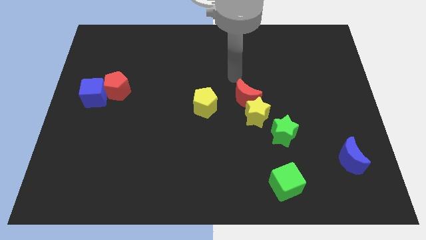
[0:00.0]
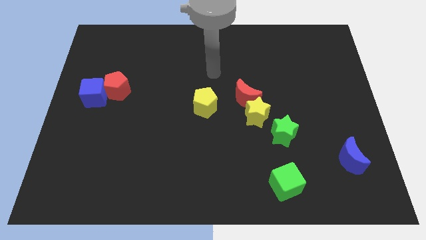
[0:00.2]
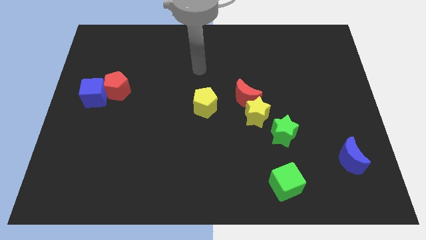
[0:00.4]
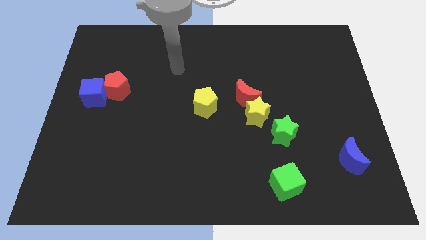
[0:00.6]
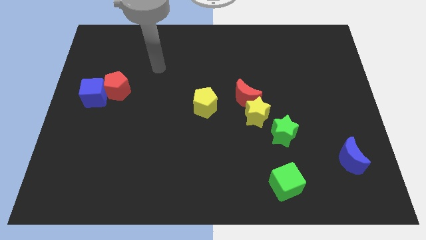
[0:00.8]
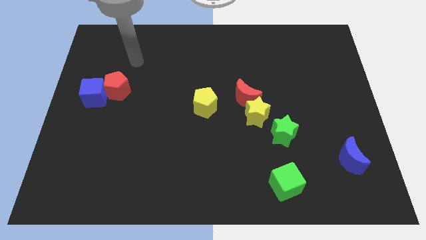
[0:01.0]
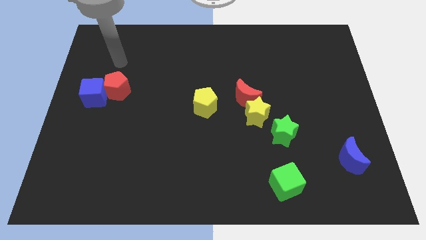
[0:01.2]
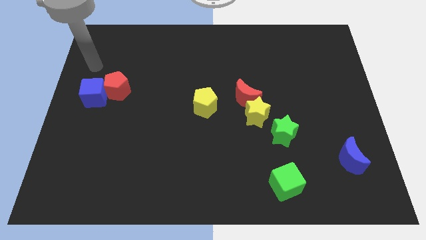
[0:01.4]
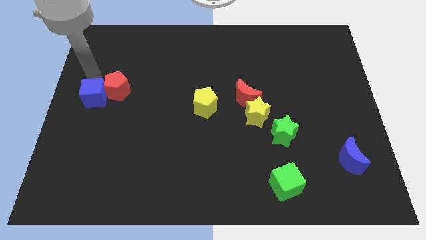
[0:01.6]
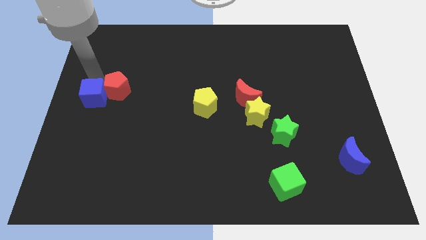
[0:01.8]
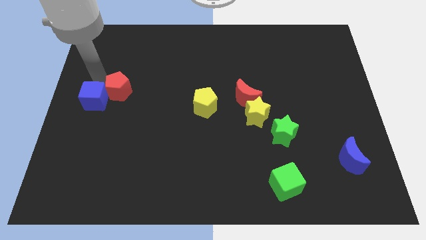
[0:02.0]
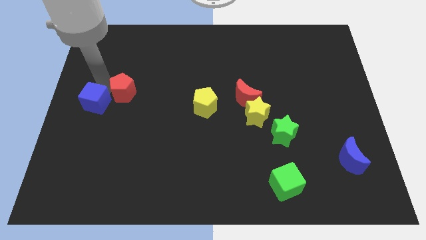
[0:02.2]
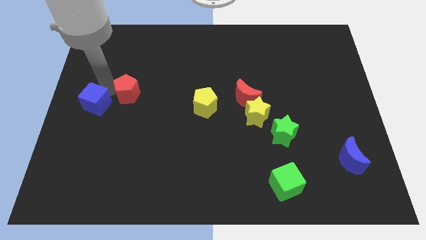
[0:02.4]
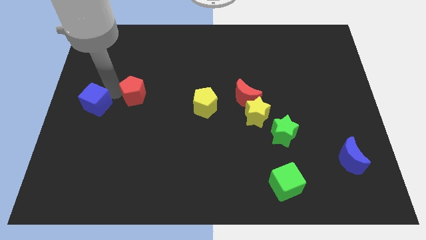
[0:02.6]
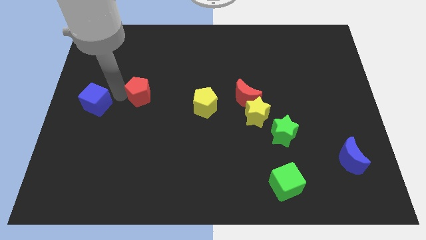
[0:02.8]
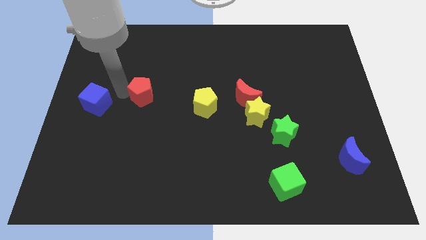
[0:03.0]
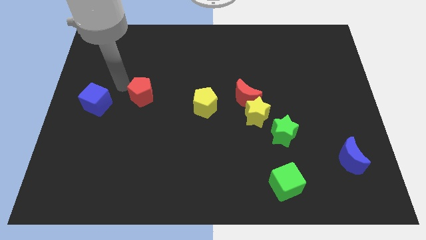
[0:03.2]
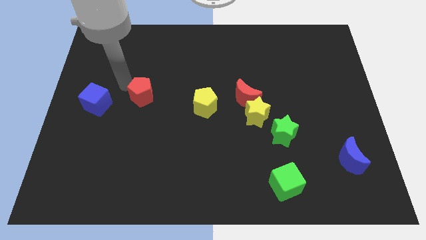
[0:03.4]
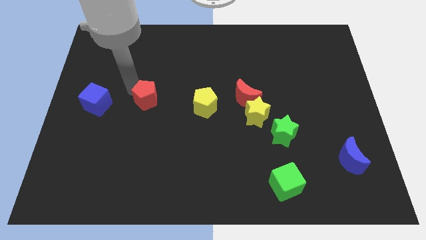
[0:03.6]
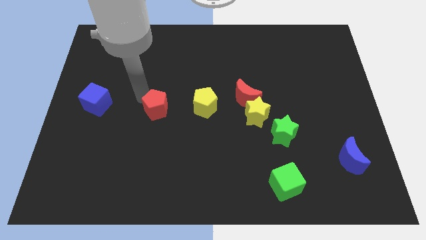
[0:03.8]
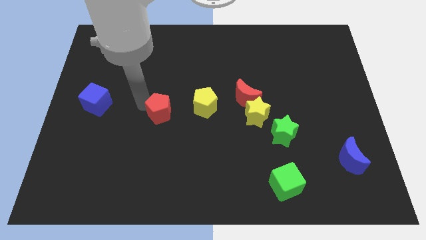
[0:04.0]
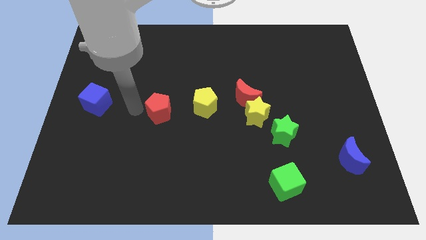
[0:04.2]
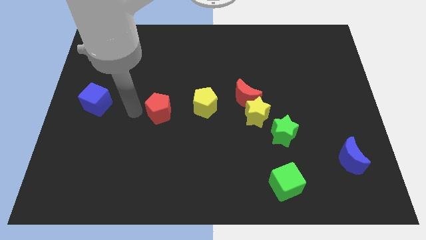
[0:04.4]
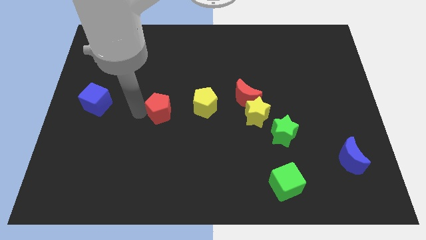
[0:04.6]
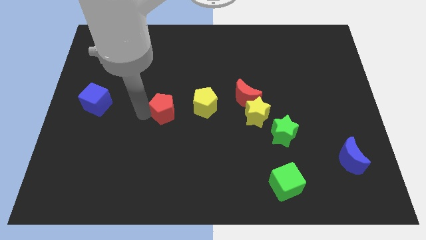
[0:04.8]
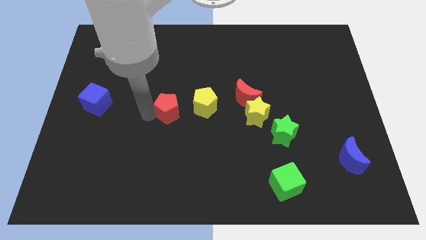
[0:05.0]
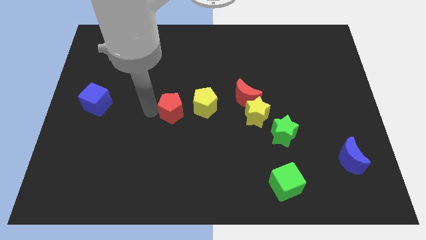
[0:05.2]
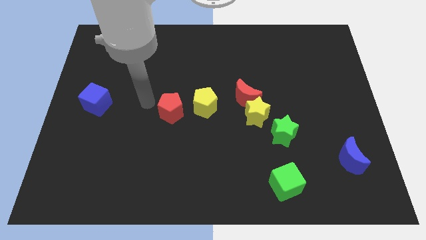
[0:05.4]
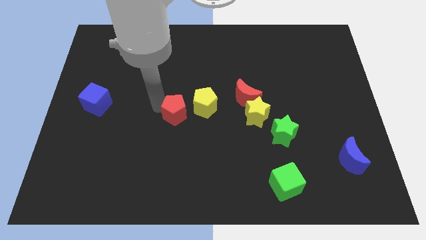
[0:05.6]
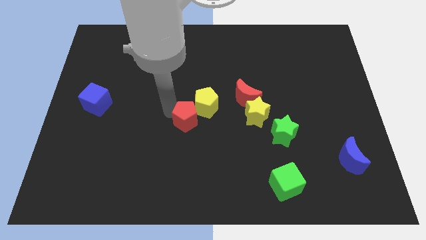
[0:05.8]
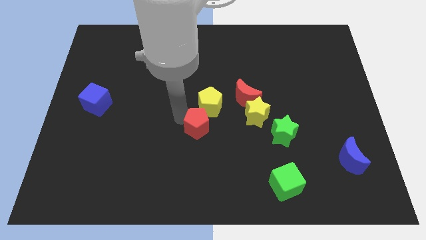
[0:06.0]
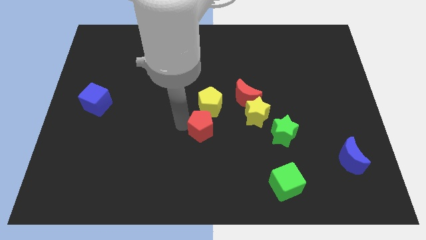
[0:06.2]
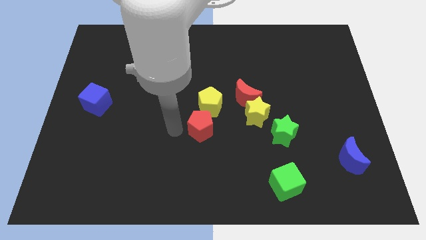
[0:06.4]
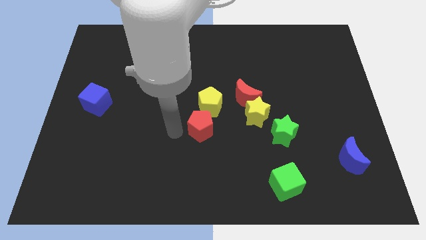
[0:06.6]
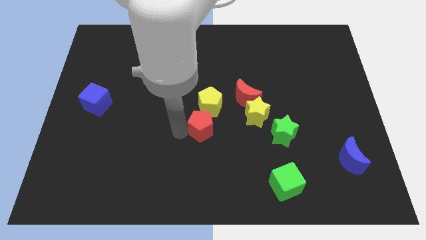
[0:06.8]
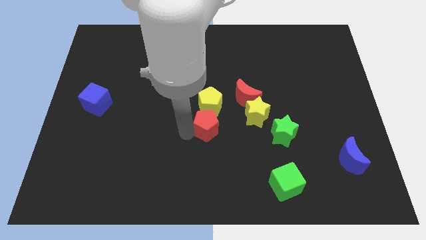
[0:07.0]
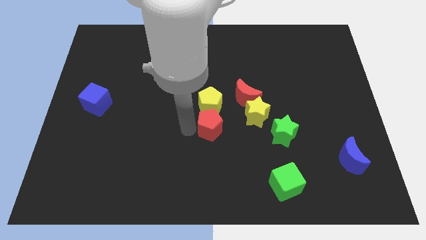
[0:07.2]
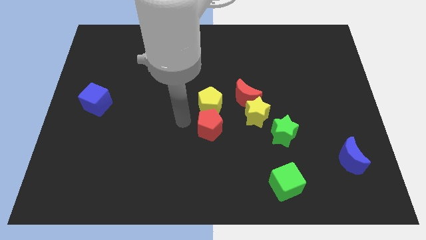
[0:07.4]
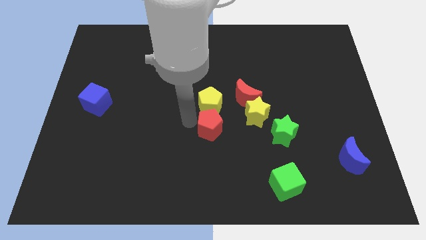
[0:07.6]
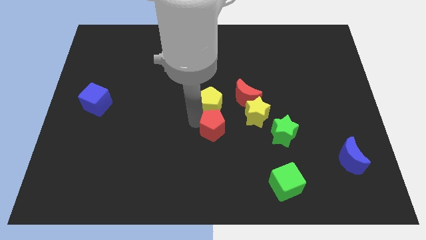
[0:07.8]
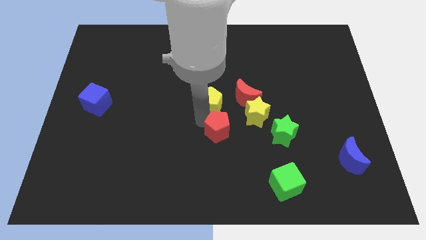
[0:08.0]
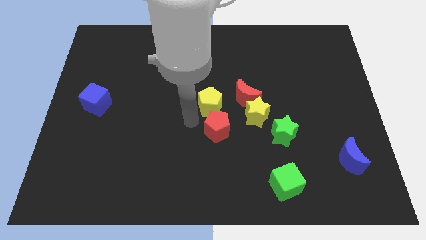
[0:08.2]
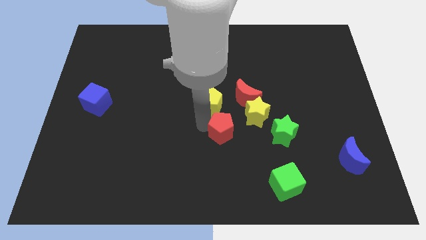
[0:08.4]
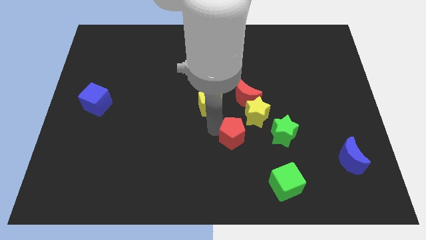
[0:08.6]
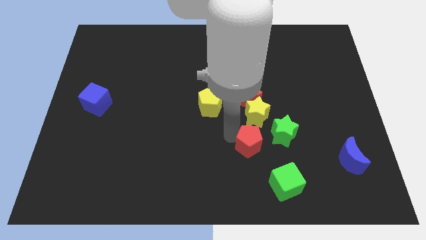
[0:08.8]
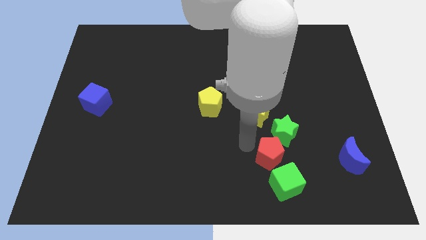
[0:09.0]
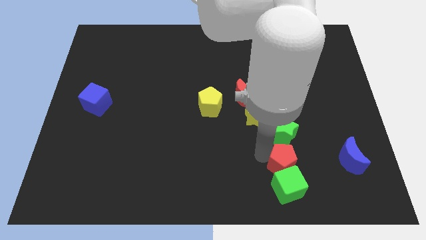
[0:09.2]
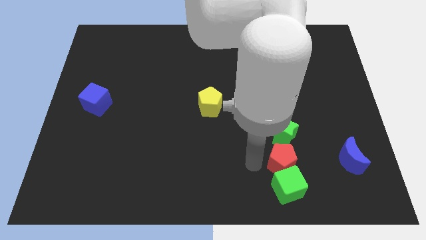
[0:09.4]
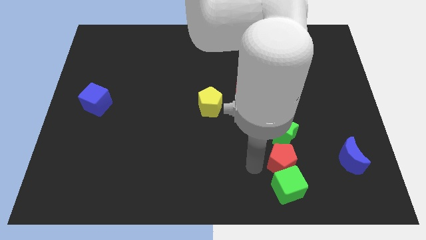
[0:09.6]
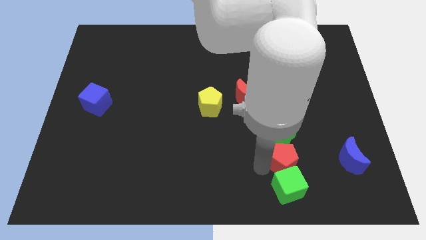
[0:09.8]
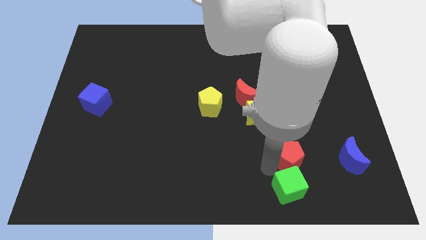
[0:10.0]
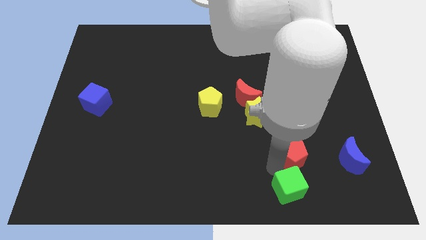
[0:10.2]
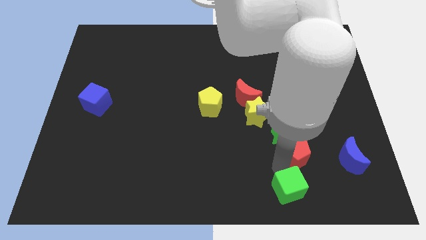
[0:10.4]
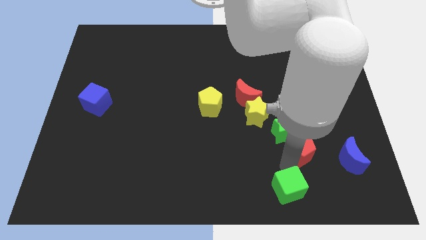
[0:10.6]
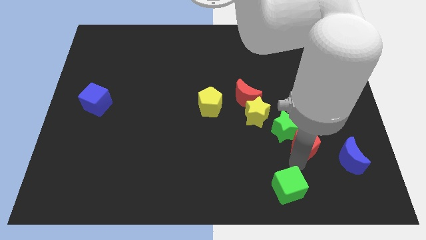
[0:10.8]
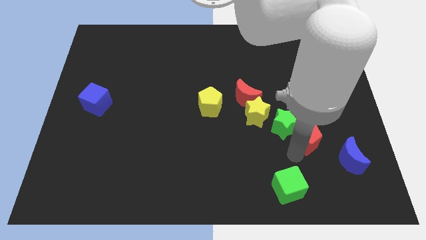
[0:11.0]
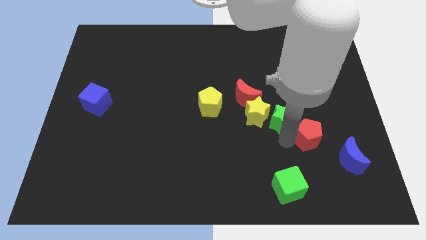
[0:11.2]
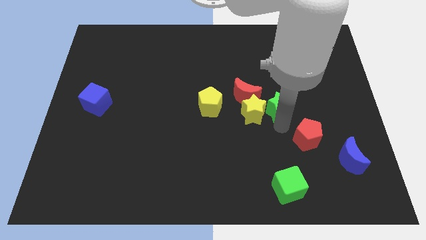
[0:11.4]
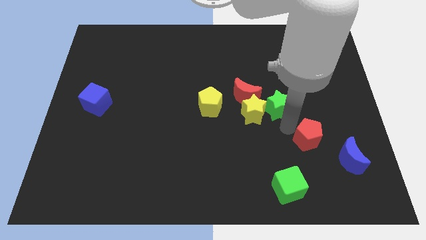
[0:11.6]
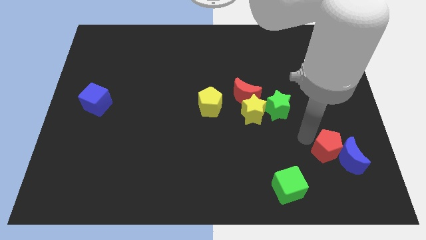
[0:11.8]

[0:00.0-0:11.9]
put the red pentagon next to the blue moon

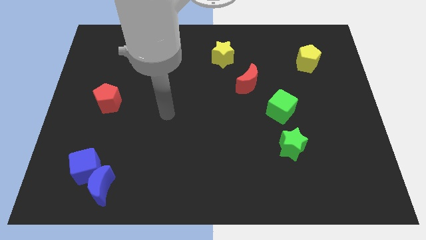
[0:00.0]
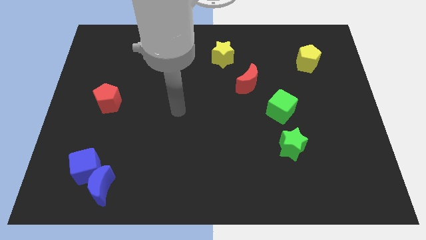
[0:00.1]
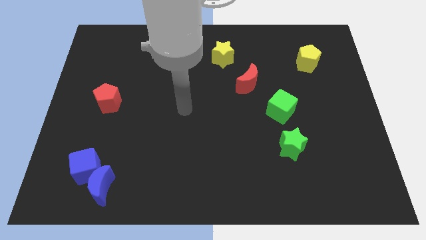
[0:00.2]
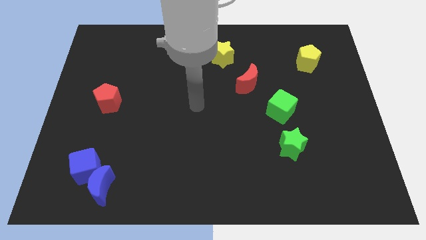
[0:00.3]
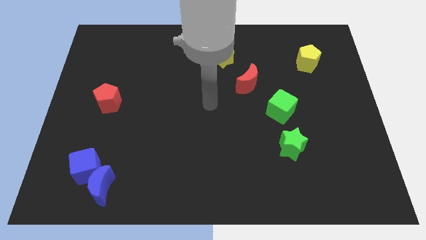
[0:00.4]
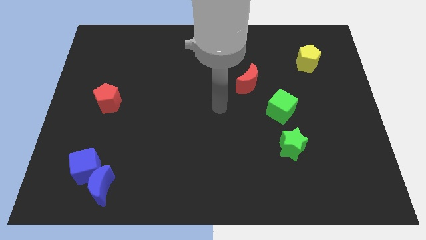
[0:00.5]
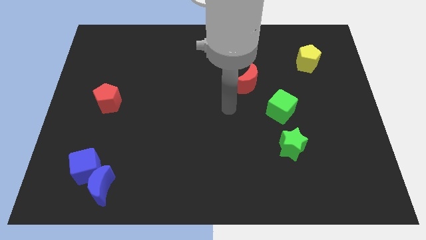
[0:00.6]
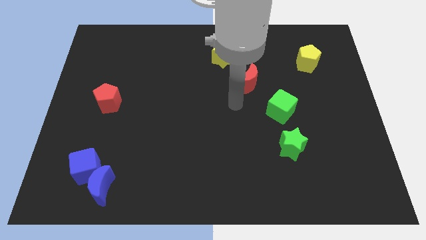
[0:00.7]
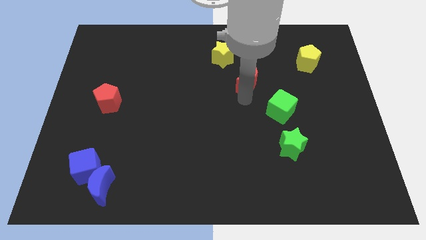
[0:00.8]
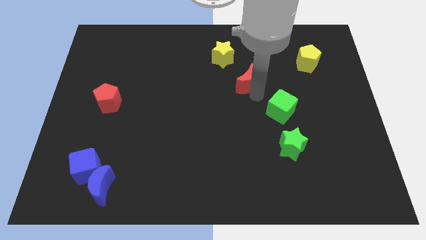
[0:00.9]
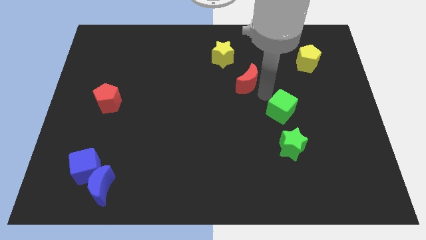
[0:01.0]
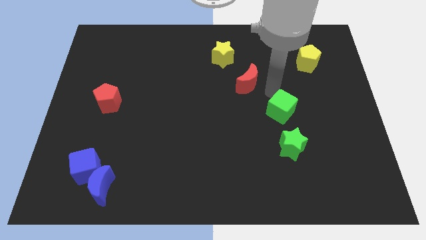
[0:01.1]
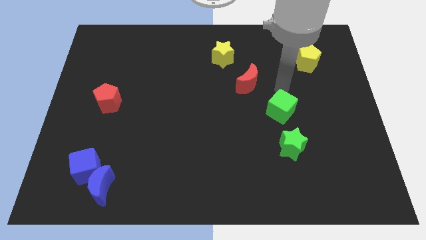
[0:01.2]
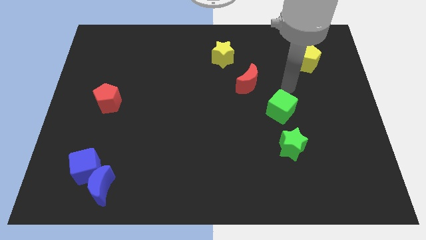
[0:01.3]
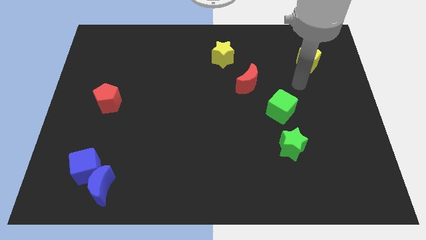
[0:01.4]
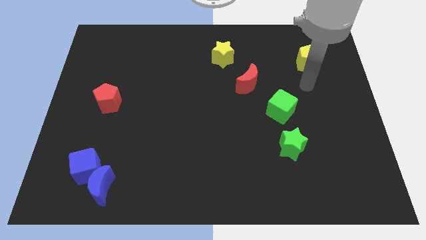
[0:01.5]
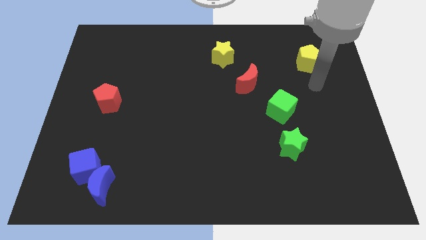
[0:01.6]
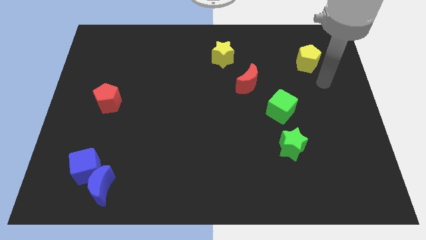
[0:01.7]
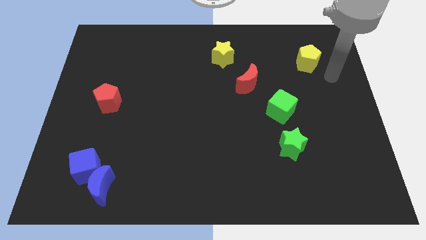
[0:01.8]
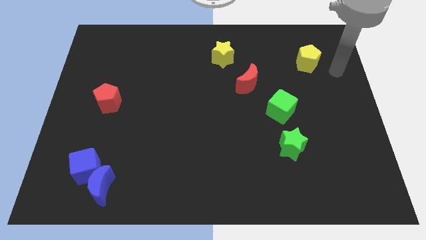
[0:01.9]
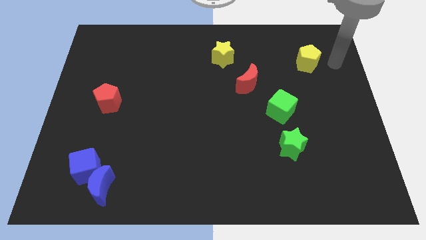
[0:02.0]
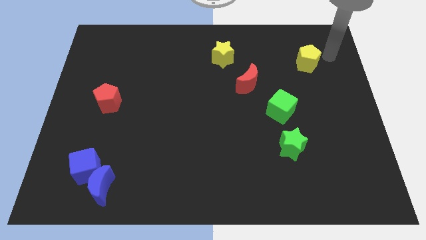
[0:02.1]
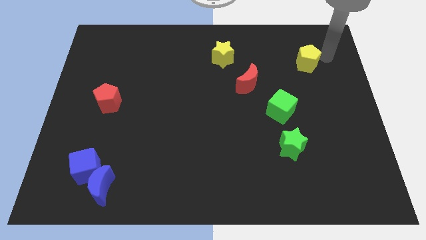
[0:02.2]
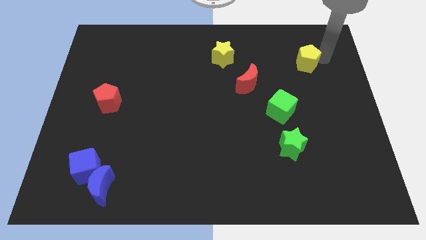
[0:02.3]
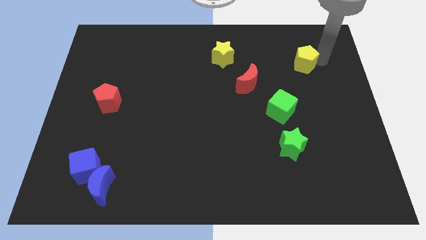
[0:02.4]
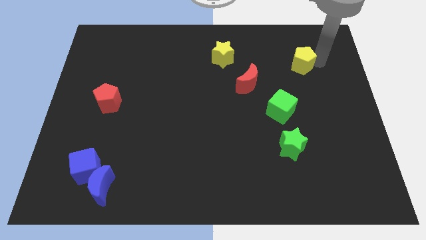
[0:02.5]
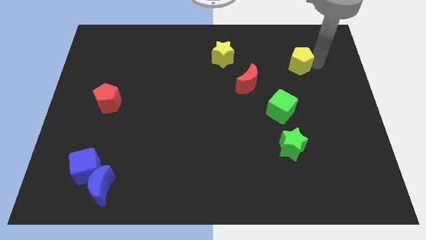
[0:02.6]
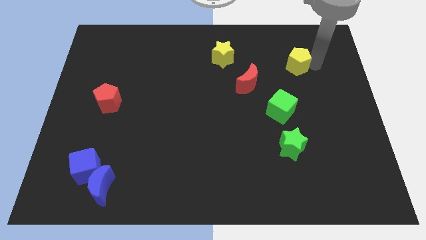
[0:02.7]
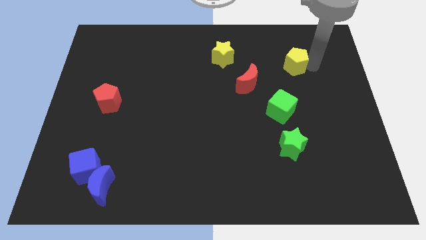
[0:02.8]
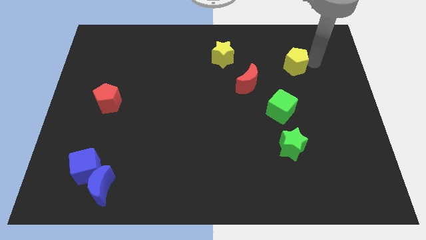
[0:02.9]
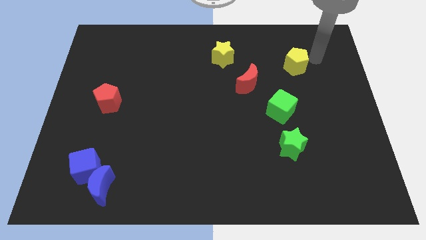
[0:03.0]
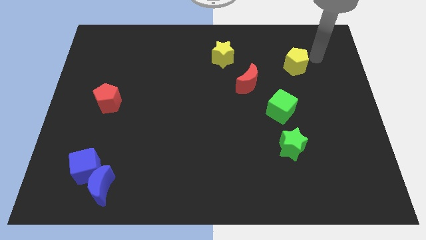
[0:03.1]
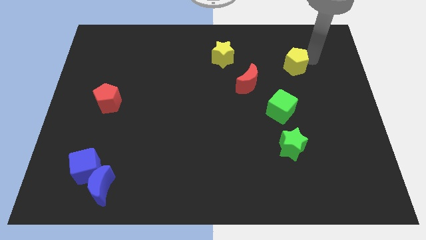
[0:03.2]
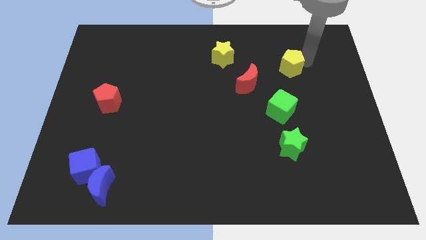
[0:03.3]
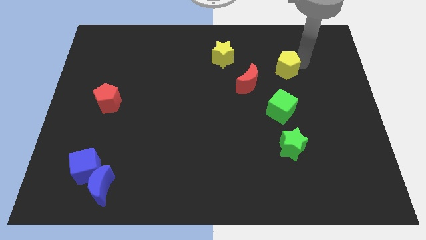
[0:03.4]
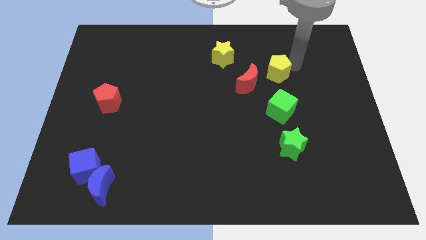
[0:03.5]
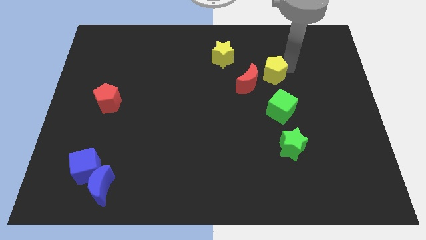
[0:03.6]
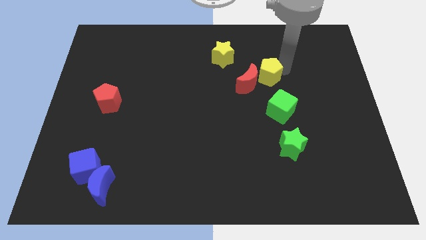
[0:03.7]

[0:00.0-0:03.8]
slide the yellow pentagon close to the red moon
